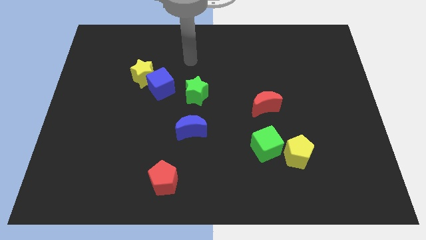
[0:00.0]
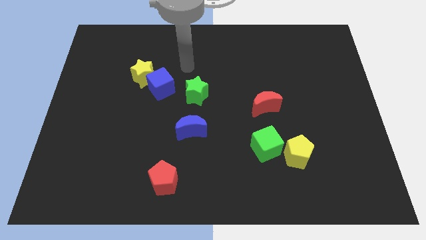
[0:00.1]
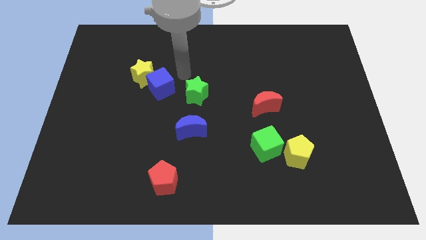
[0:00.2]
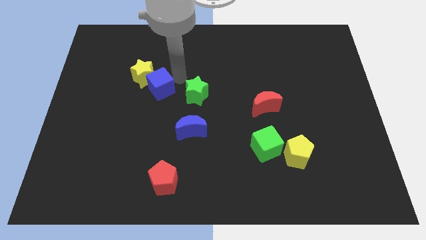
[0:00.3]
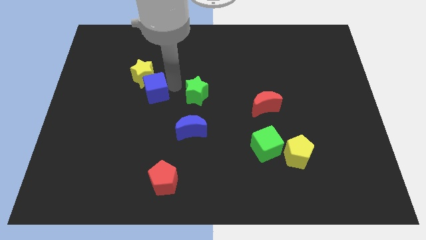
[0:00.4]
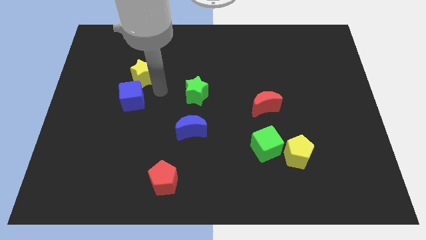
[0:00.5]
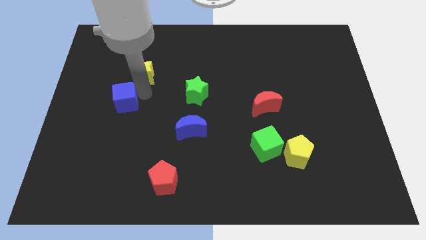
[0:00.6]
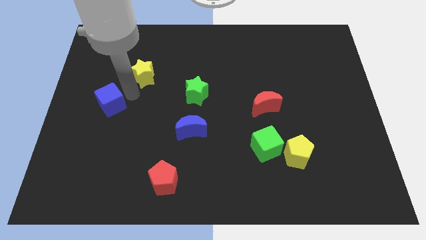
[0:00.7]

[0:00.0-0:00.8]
separate the yellow star from the blue cube

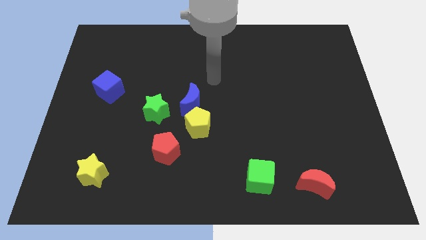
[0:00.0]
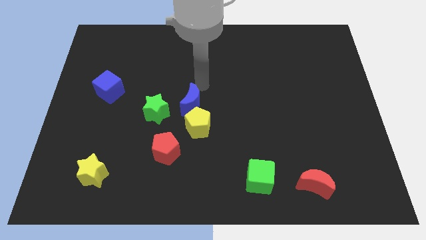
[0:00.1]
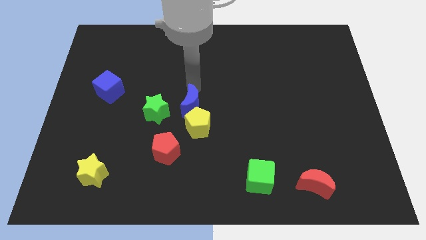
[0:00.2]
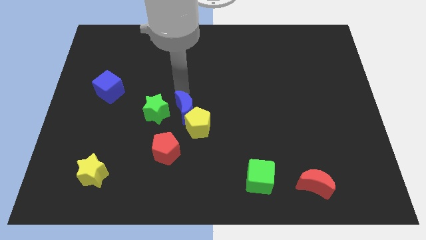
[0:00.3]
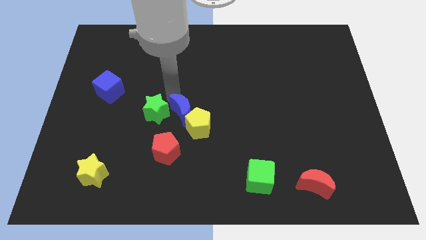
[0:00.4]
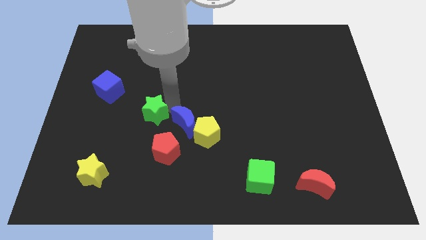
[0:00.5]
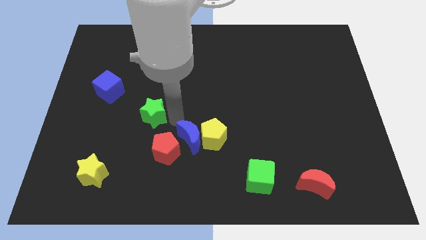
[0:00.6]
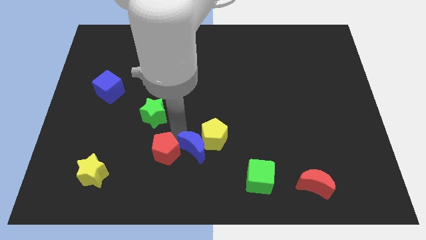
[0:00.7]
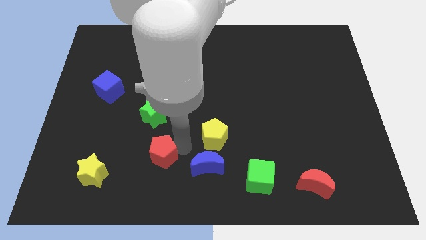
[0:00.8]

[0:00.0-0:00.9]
move the blue moon away from the yellow pentagon and green star

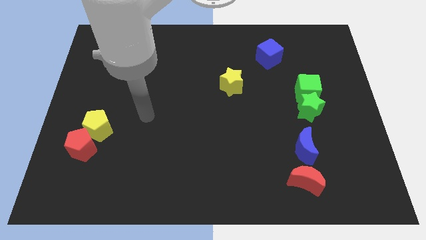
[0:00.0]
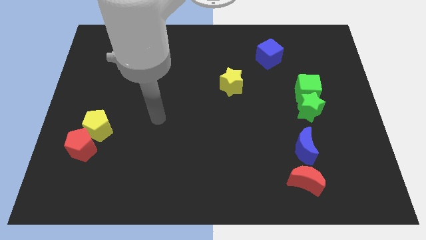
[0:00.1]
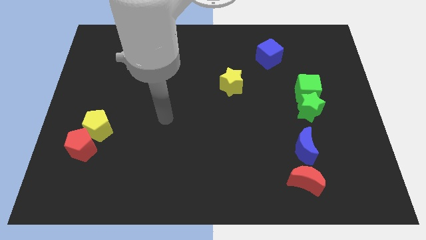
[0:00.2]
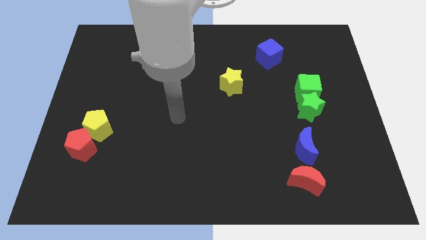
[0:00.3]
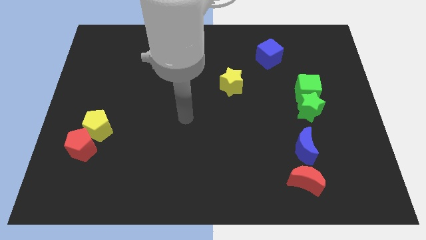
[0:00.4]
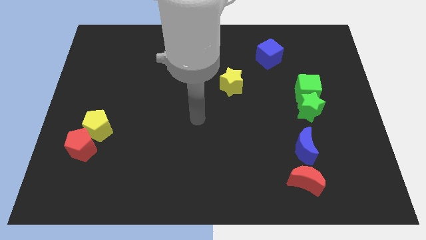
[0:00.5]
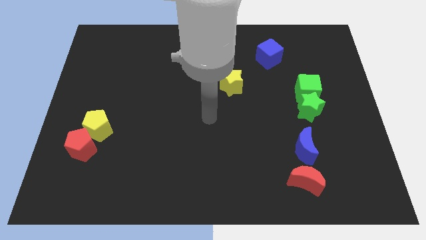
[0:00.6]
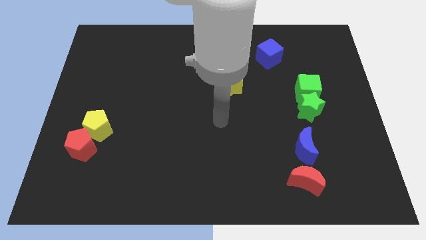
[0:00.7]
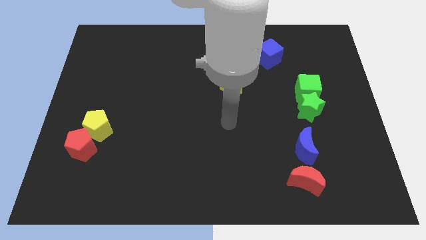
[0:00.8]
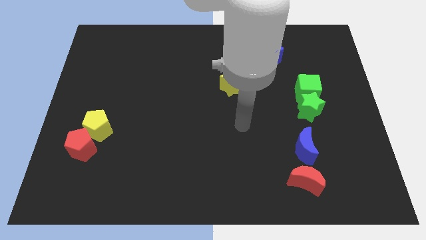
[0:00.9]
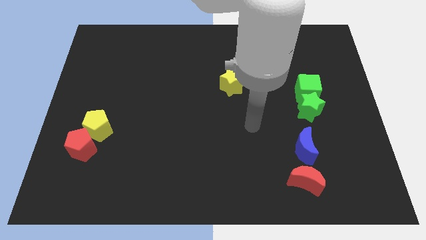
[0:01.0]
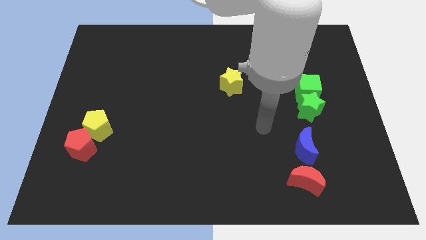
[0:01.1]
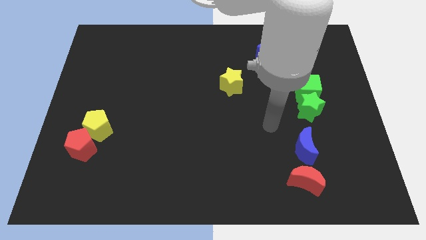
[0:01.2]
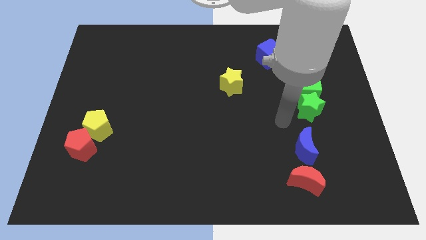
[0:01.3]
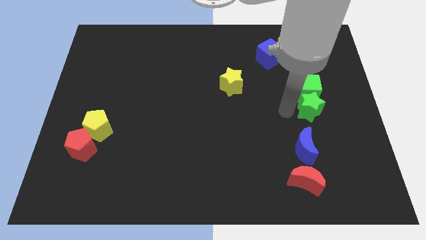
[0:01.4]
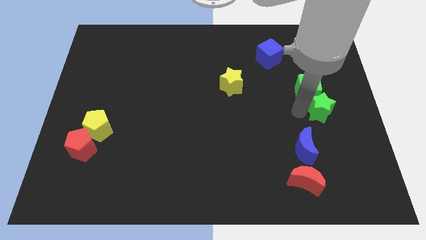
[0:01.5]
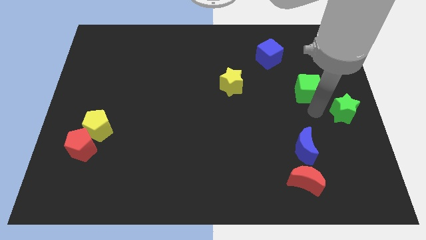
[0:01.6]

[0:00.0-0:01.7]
separate the green cube from the green star

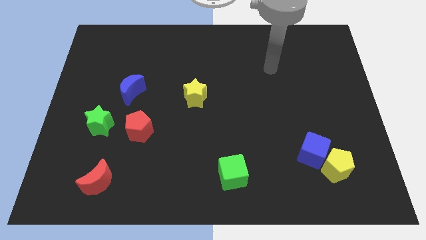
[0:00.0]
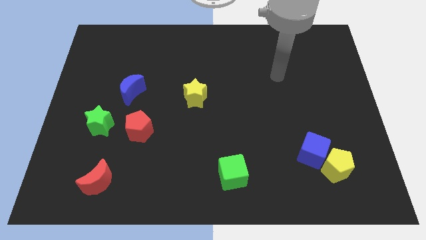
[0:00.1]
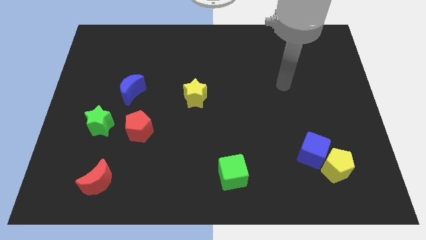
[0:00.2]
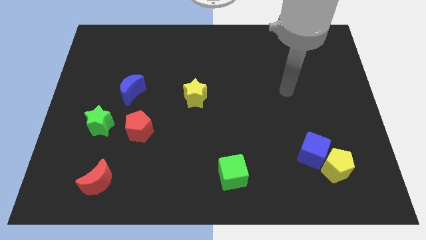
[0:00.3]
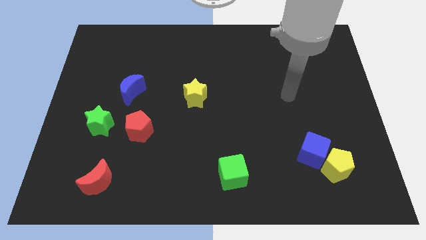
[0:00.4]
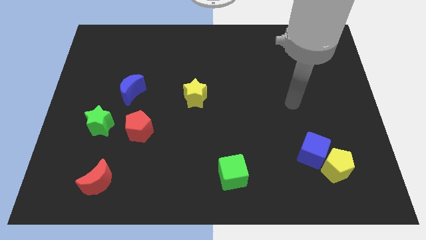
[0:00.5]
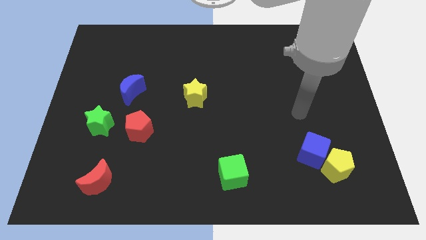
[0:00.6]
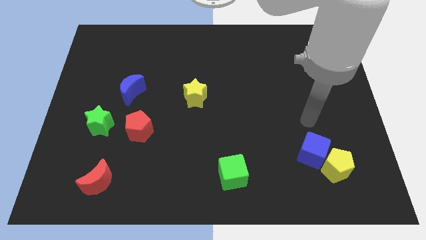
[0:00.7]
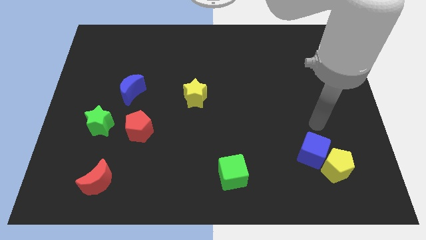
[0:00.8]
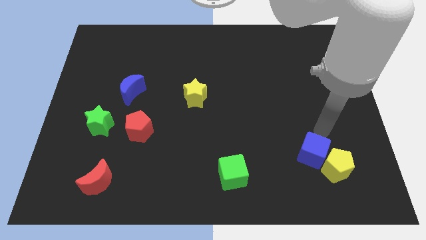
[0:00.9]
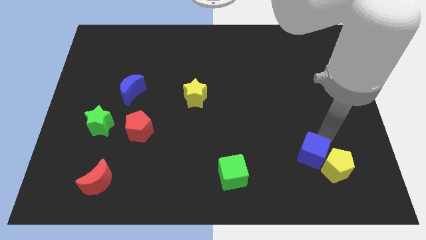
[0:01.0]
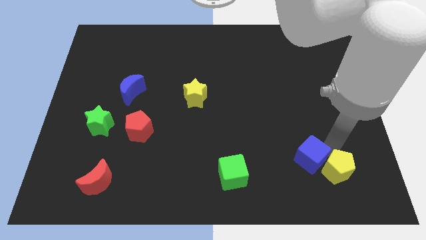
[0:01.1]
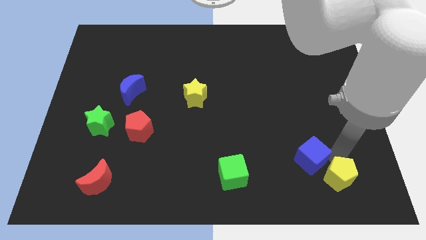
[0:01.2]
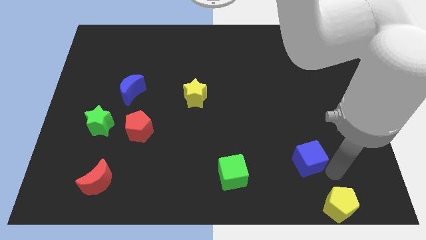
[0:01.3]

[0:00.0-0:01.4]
move the blue cube away from the yellow pentagon

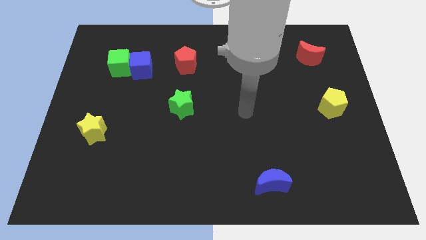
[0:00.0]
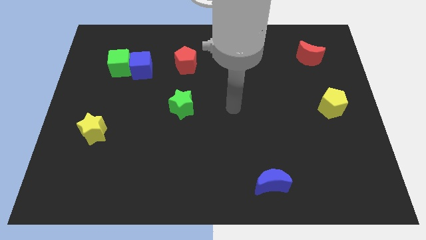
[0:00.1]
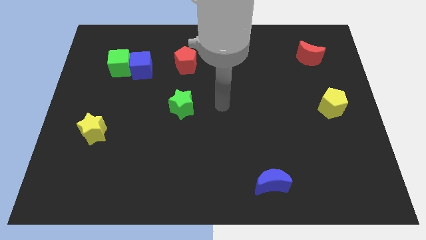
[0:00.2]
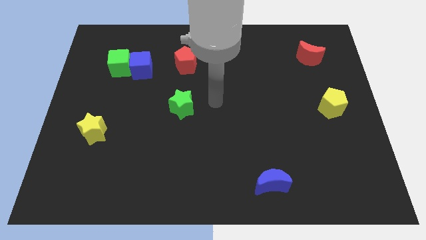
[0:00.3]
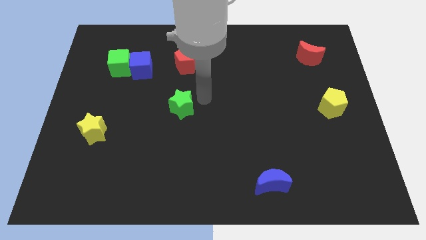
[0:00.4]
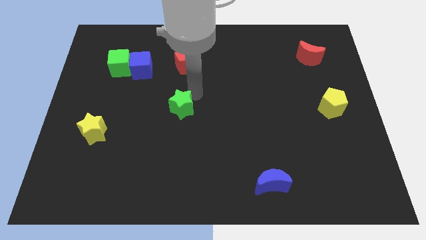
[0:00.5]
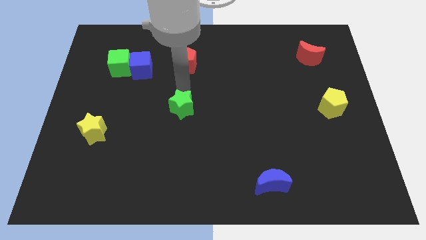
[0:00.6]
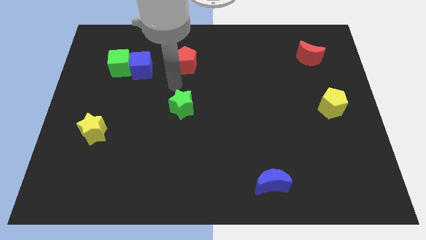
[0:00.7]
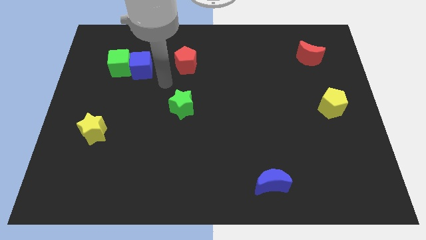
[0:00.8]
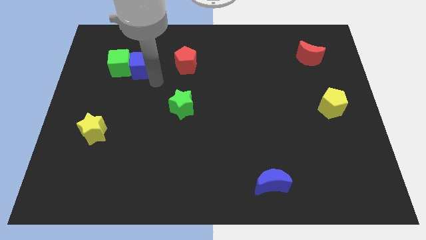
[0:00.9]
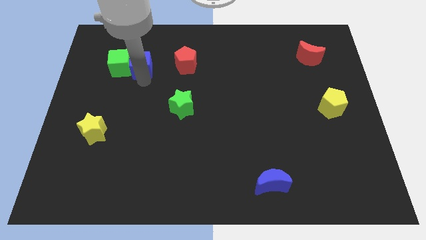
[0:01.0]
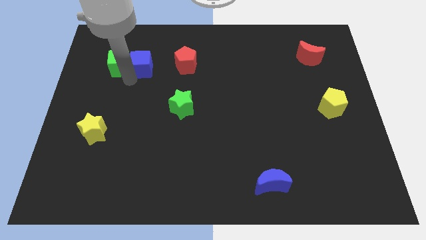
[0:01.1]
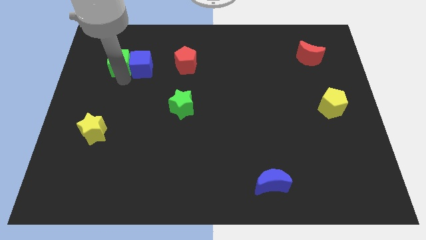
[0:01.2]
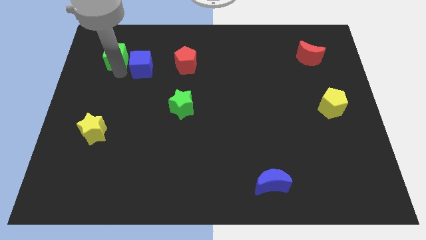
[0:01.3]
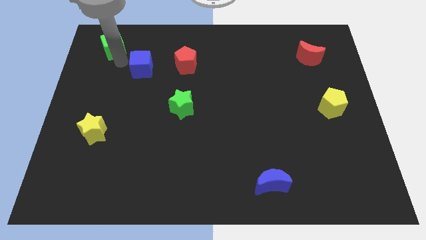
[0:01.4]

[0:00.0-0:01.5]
move the blue cube away from the green cube

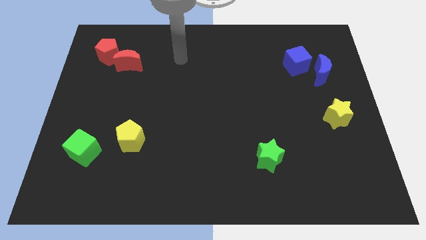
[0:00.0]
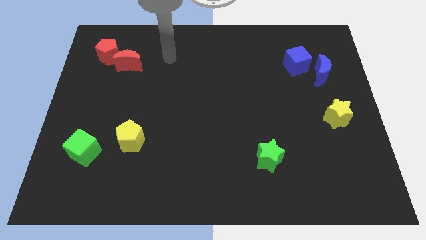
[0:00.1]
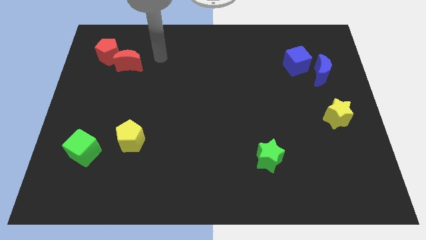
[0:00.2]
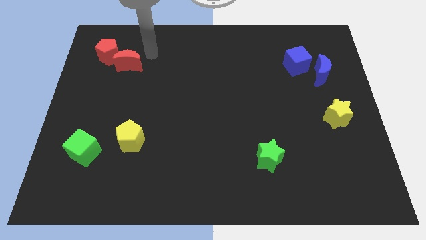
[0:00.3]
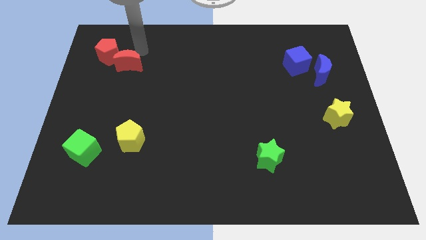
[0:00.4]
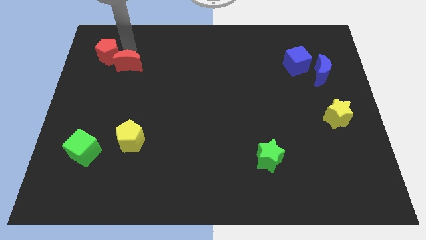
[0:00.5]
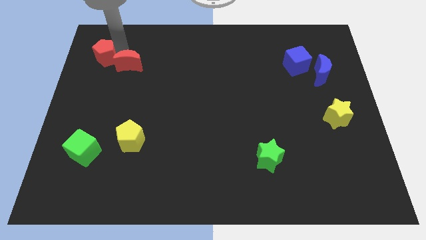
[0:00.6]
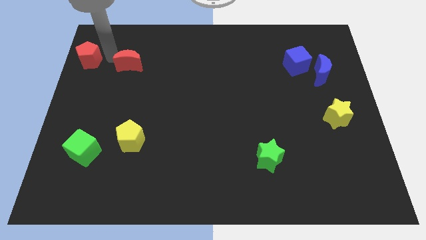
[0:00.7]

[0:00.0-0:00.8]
move the red moon away from the red pentagon

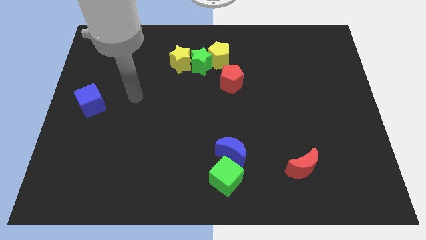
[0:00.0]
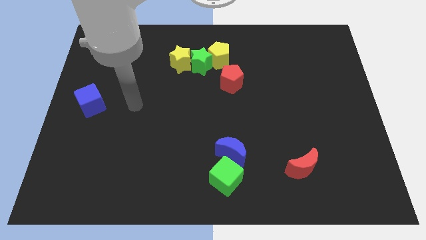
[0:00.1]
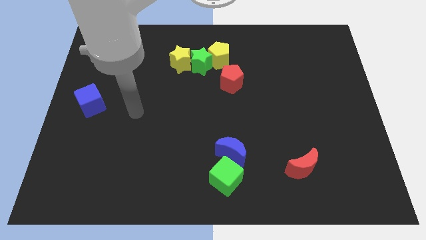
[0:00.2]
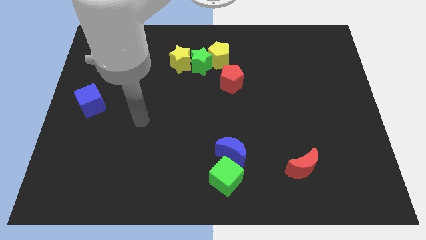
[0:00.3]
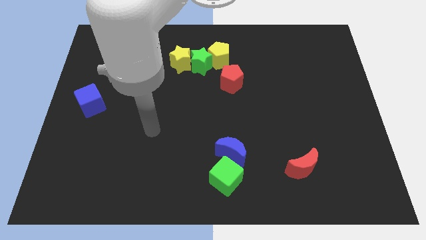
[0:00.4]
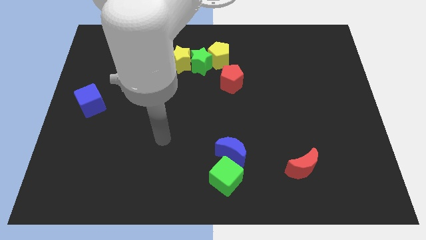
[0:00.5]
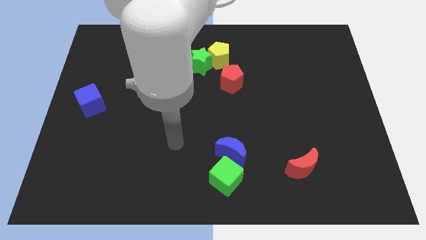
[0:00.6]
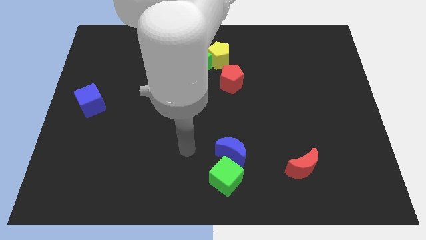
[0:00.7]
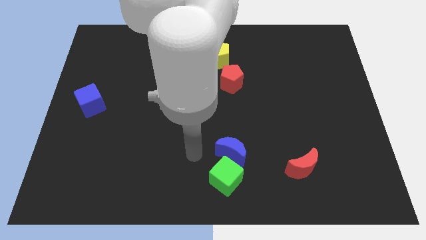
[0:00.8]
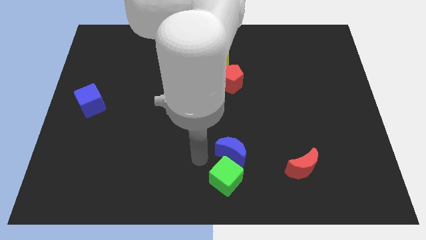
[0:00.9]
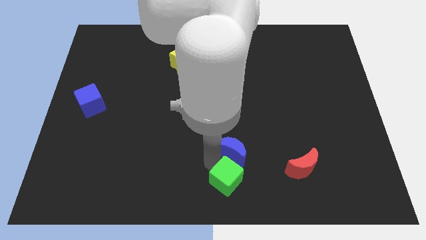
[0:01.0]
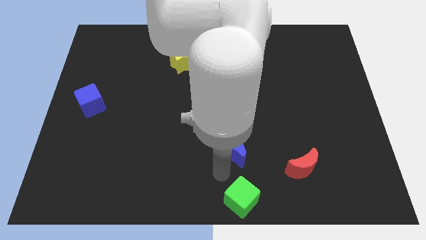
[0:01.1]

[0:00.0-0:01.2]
separate the blue moon from the green cube

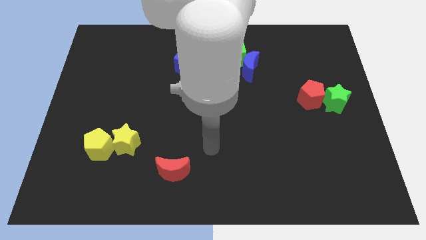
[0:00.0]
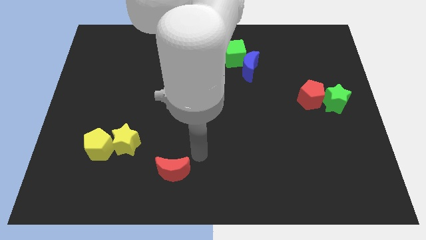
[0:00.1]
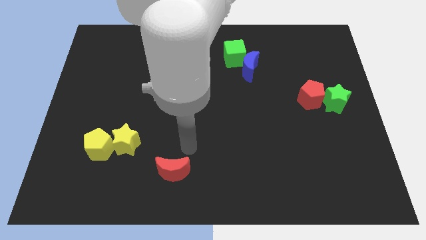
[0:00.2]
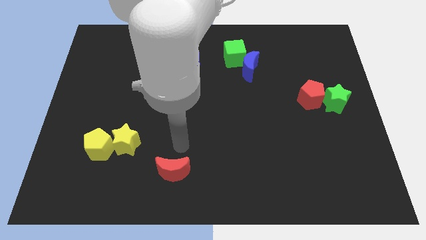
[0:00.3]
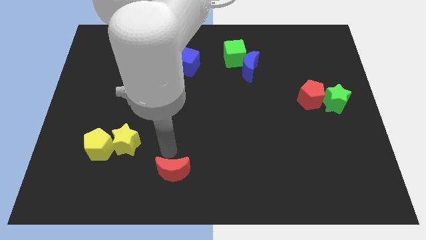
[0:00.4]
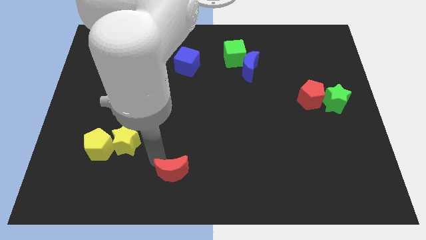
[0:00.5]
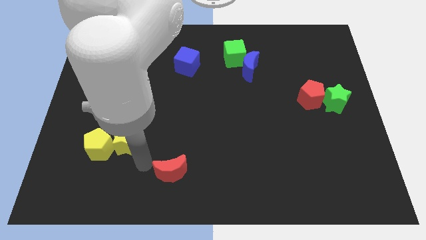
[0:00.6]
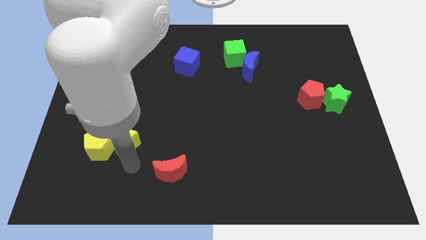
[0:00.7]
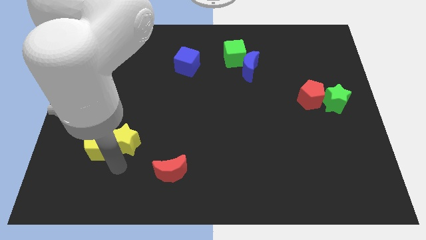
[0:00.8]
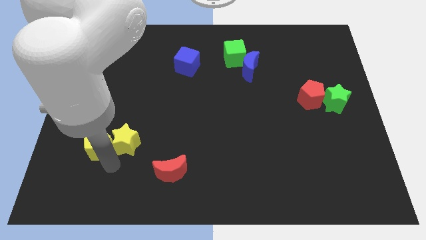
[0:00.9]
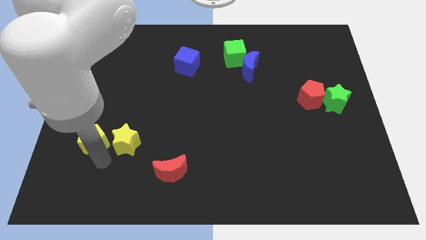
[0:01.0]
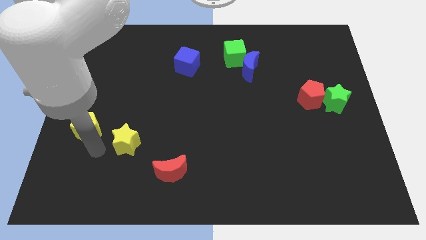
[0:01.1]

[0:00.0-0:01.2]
separate the yellow star from the yellow pentagon

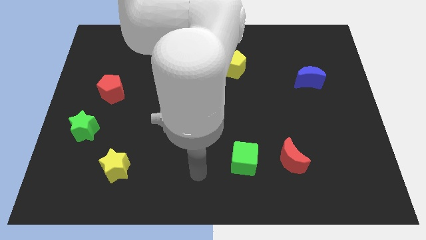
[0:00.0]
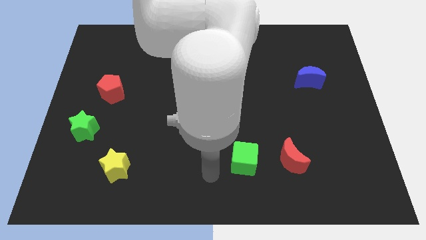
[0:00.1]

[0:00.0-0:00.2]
move the red moon away from the green cube
